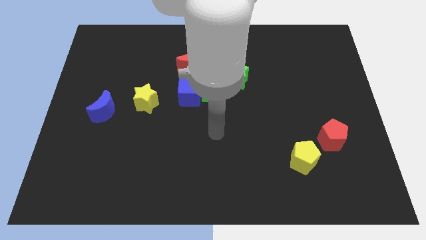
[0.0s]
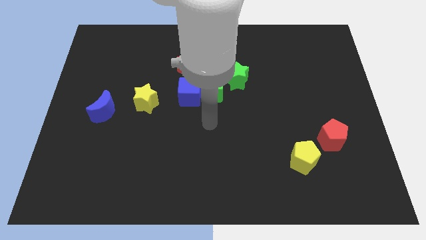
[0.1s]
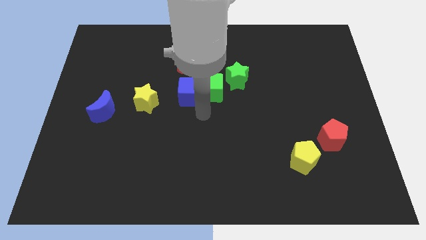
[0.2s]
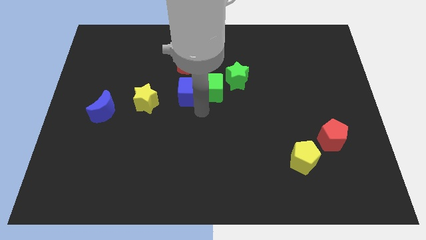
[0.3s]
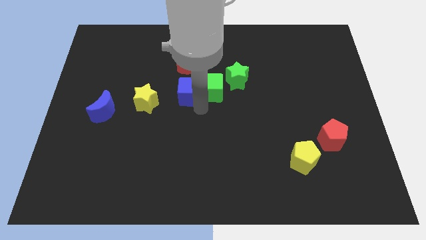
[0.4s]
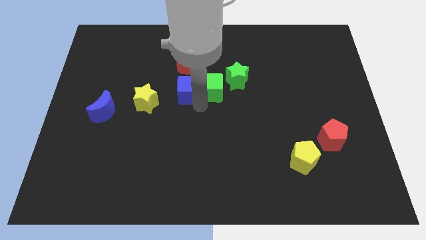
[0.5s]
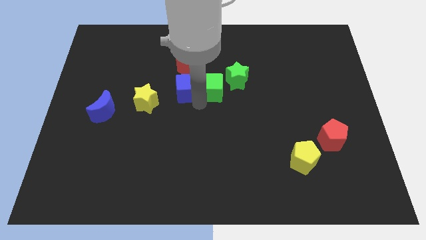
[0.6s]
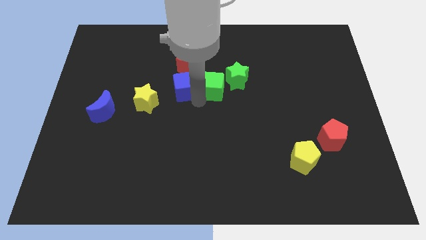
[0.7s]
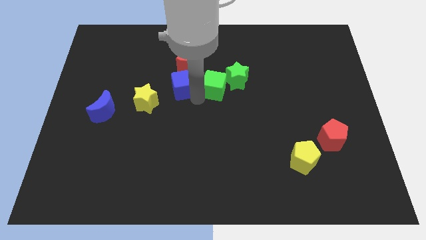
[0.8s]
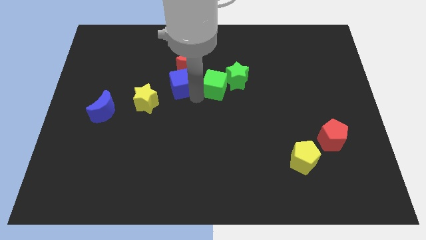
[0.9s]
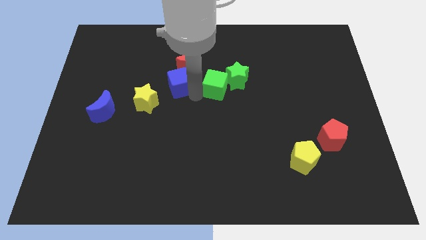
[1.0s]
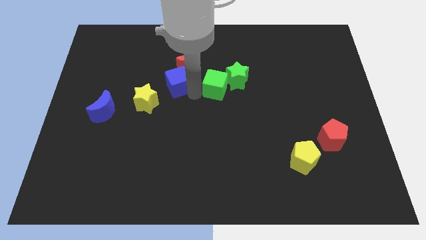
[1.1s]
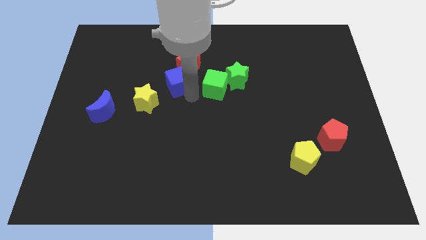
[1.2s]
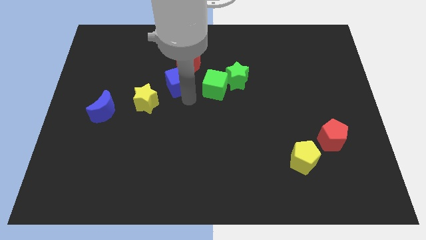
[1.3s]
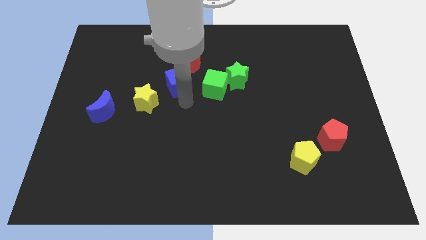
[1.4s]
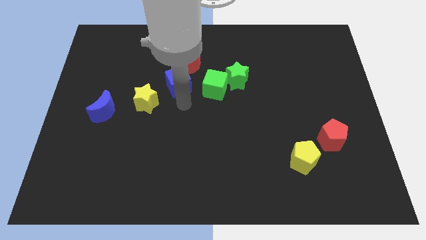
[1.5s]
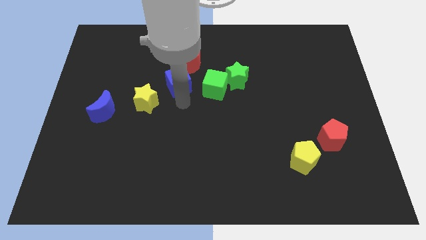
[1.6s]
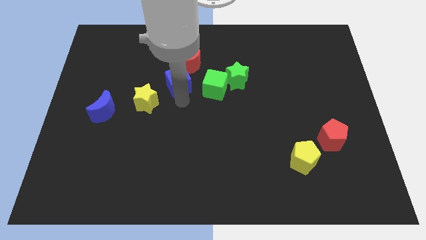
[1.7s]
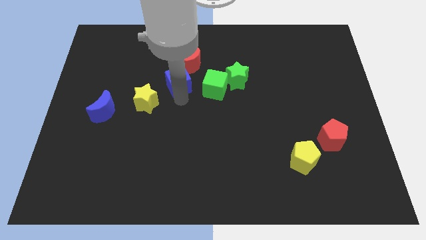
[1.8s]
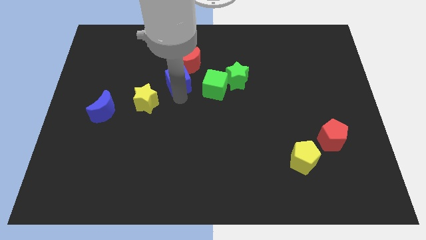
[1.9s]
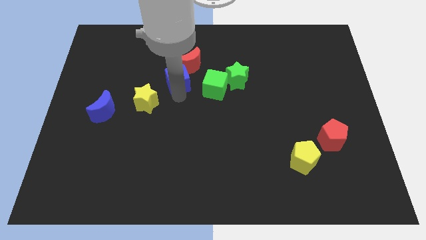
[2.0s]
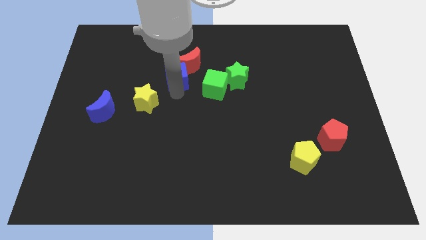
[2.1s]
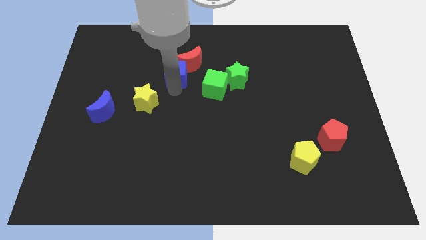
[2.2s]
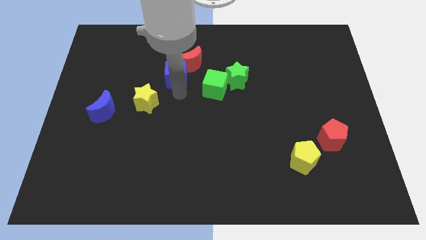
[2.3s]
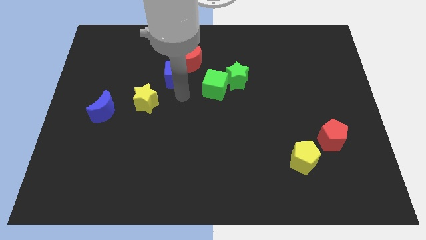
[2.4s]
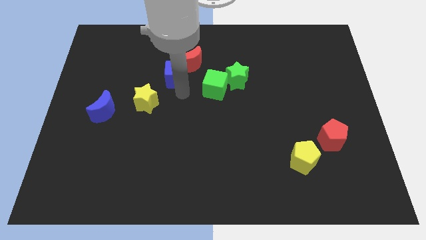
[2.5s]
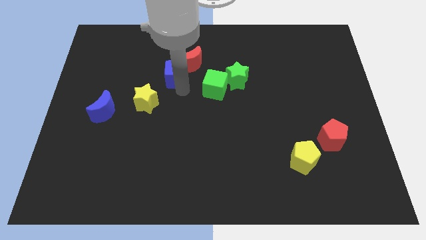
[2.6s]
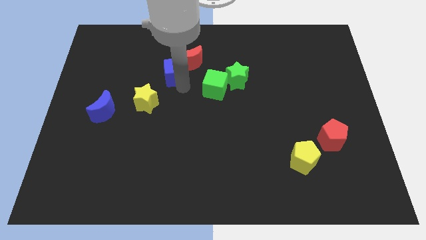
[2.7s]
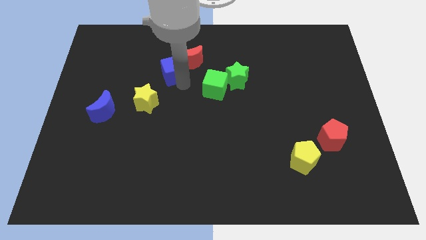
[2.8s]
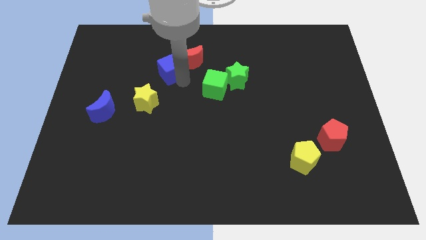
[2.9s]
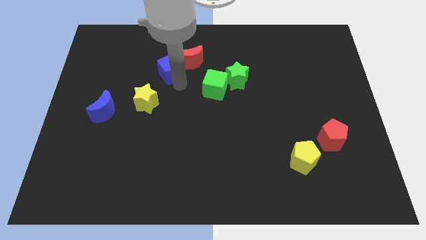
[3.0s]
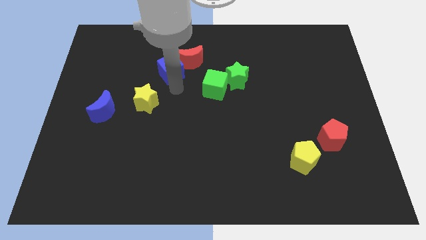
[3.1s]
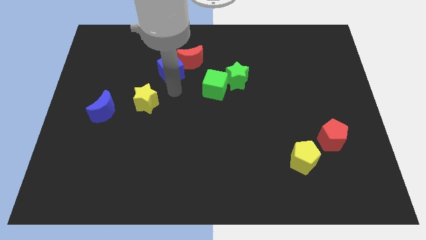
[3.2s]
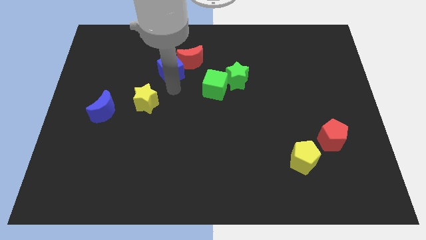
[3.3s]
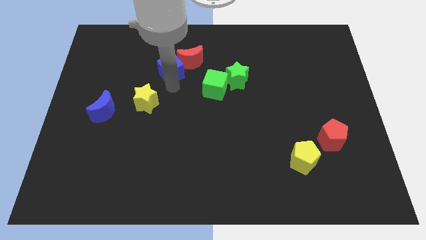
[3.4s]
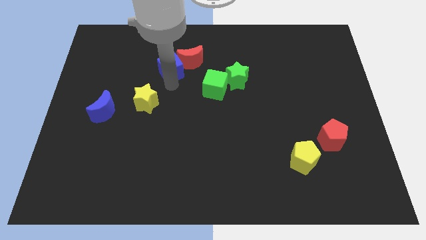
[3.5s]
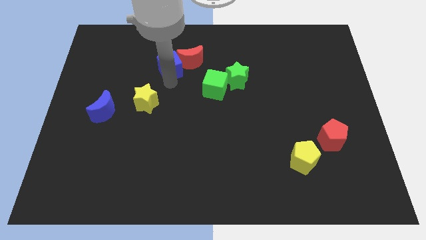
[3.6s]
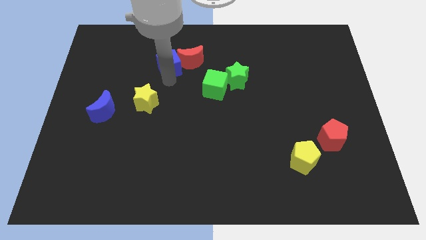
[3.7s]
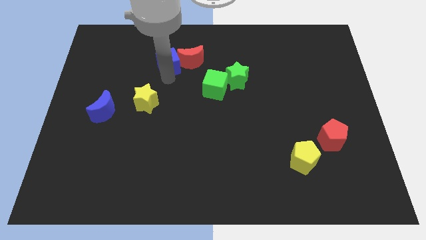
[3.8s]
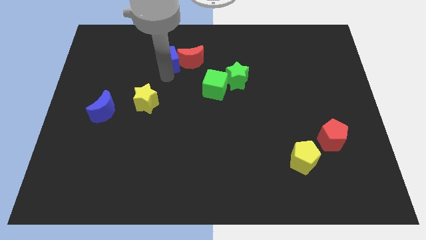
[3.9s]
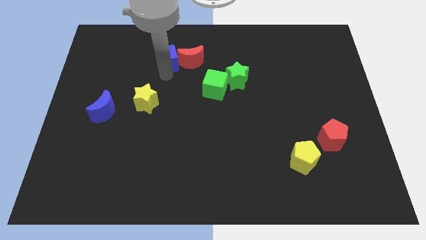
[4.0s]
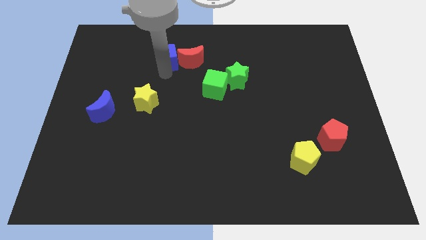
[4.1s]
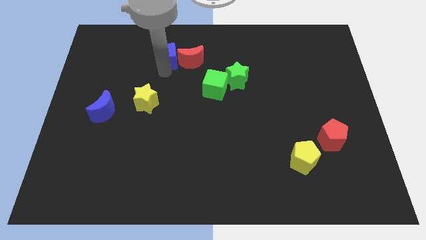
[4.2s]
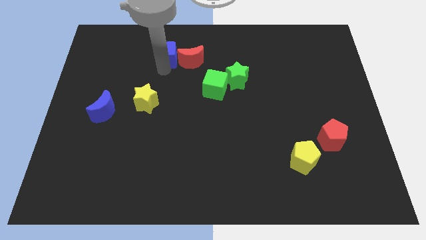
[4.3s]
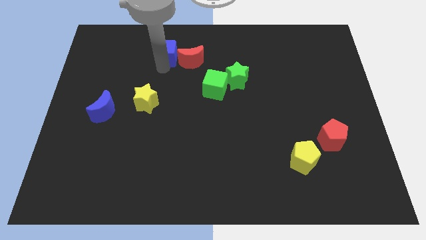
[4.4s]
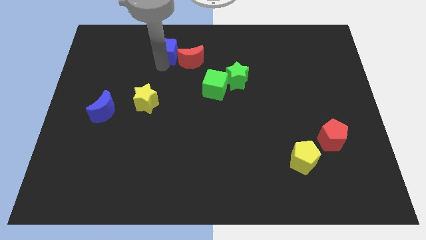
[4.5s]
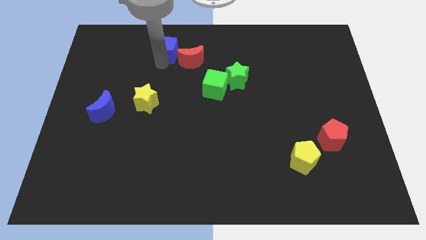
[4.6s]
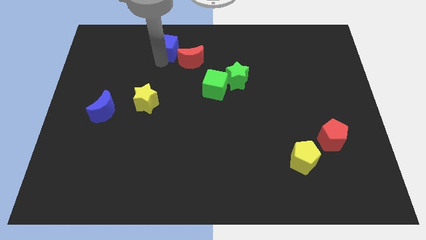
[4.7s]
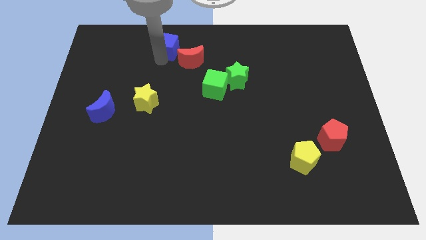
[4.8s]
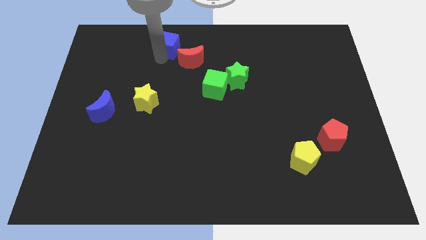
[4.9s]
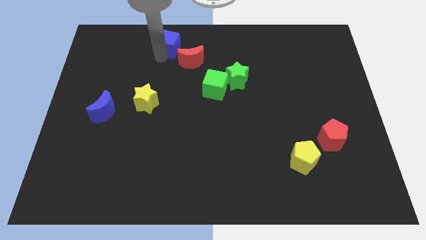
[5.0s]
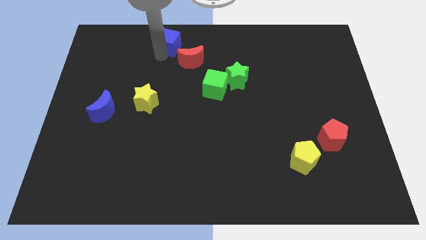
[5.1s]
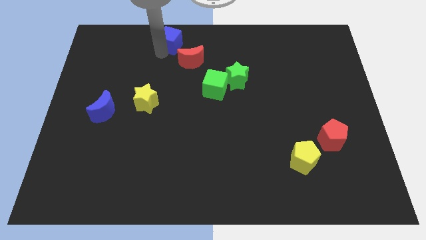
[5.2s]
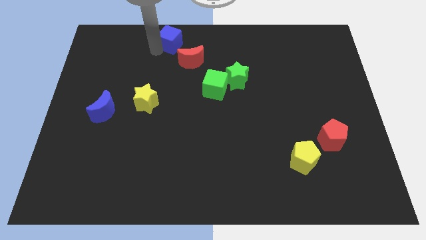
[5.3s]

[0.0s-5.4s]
put the blue cube to the towards your base
